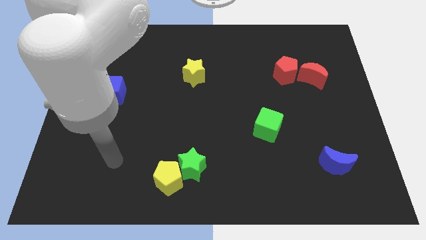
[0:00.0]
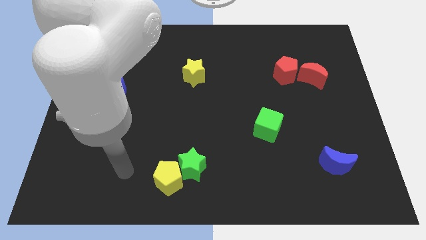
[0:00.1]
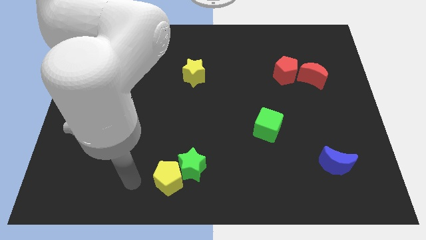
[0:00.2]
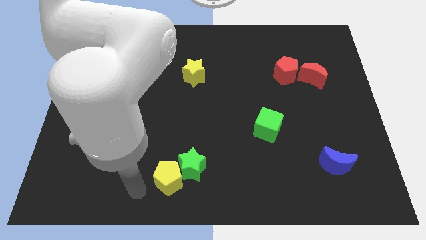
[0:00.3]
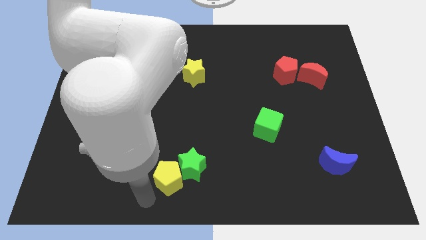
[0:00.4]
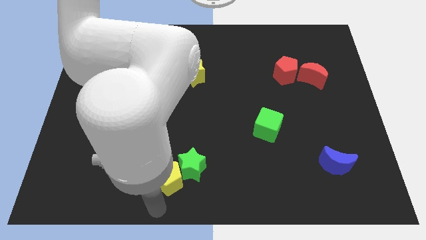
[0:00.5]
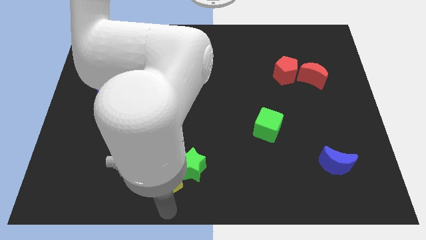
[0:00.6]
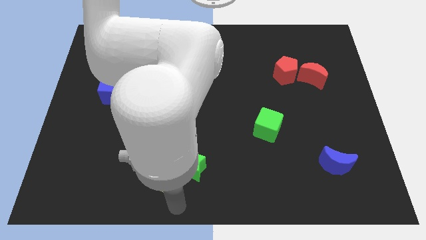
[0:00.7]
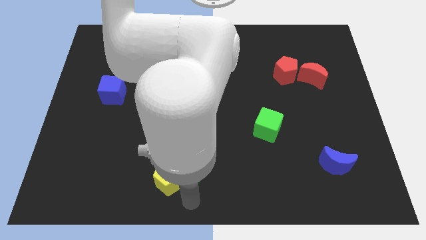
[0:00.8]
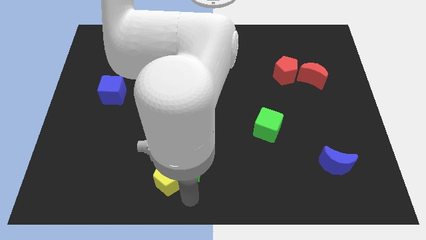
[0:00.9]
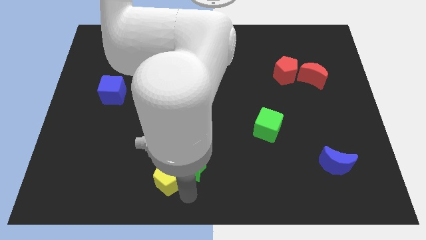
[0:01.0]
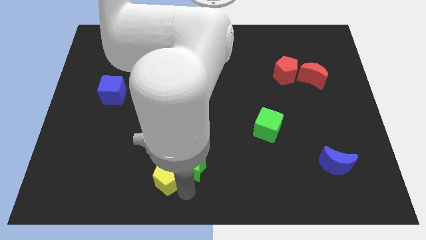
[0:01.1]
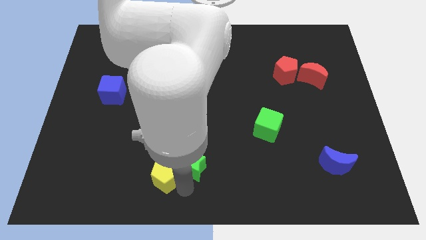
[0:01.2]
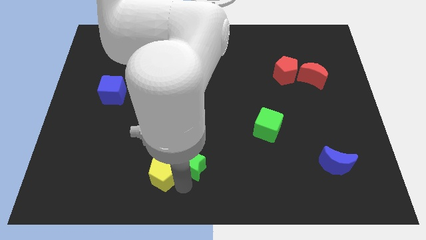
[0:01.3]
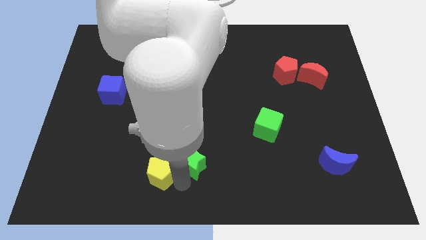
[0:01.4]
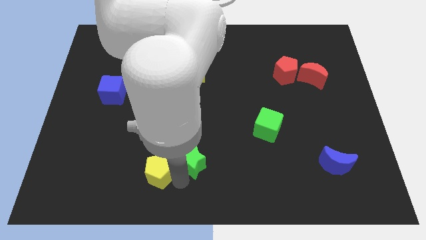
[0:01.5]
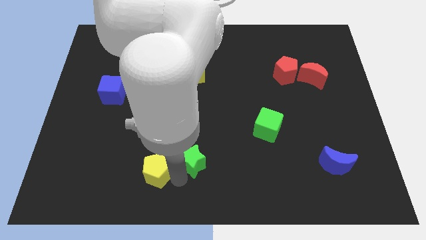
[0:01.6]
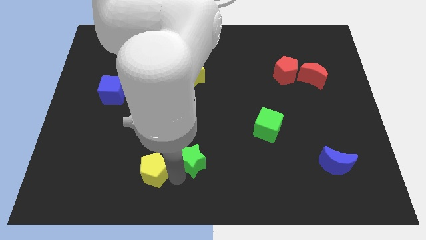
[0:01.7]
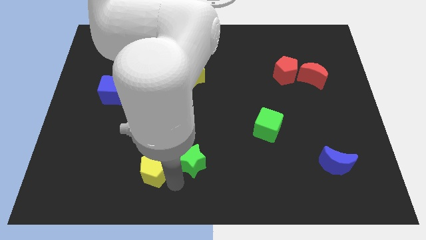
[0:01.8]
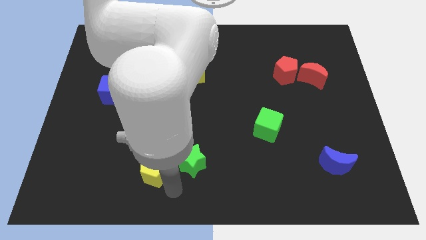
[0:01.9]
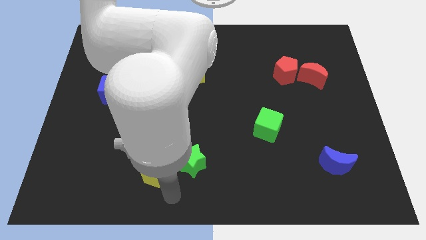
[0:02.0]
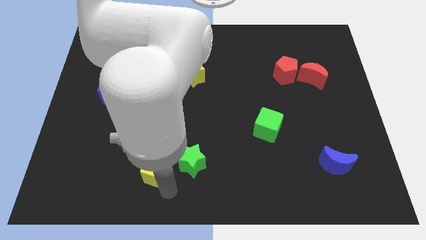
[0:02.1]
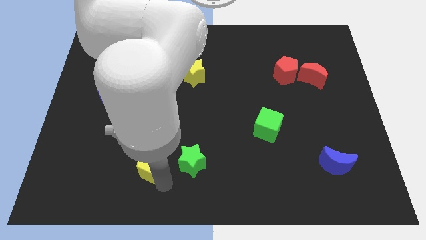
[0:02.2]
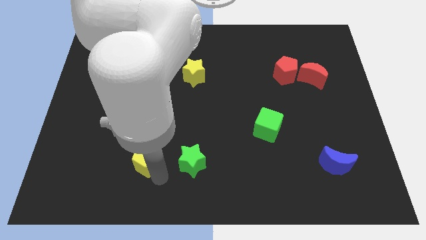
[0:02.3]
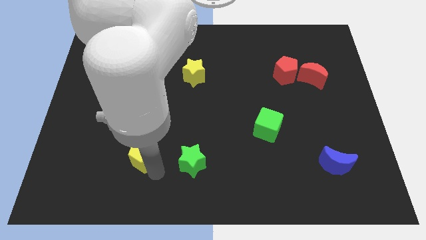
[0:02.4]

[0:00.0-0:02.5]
push the yellow pentagon somewhat up and then left

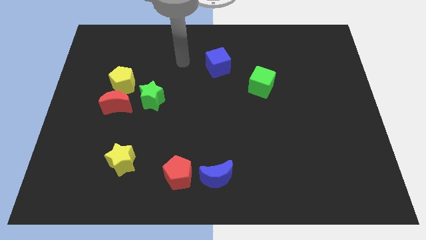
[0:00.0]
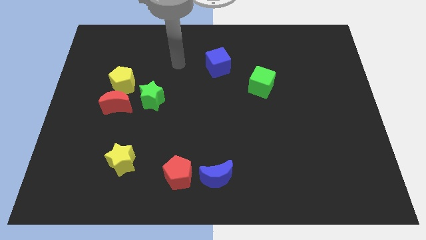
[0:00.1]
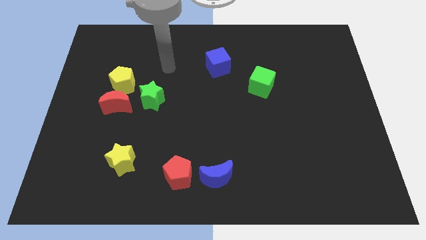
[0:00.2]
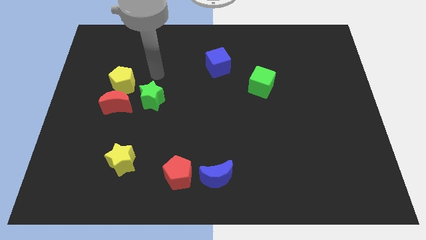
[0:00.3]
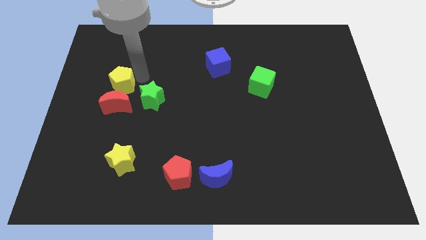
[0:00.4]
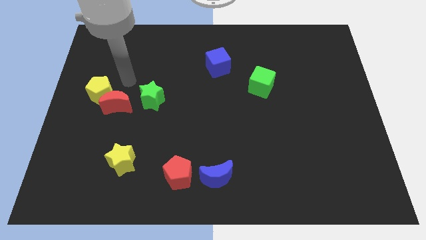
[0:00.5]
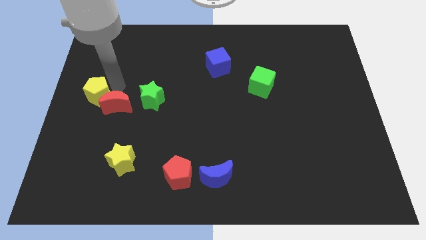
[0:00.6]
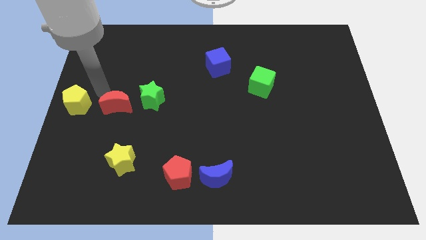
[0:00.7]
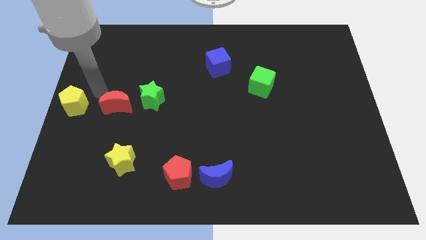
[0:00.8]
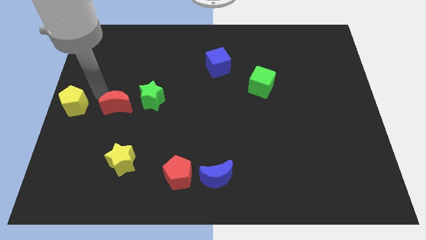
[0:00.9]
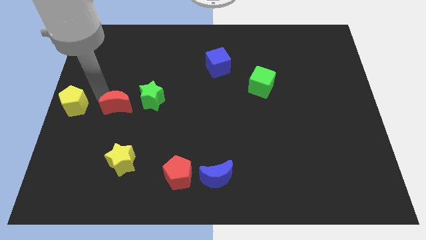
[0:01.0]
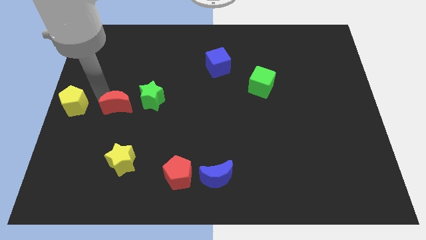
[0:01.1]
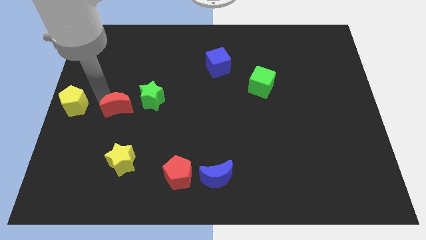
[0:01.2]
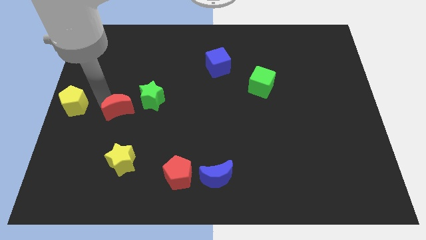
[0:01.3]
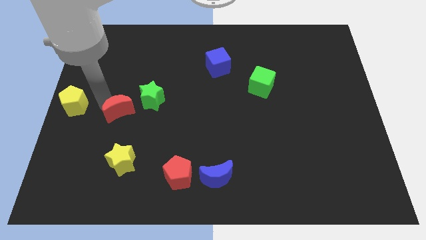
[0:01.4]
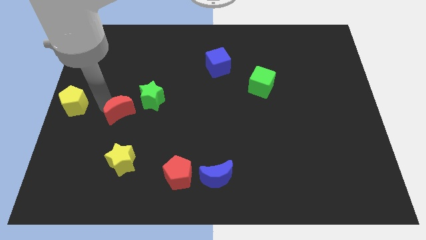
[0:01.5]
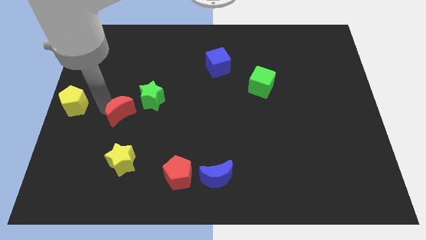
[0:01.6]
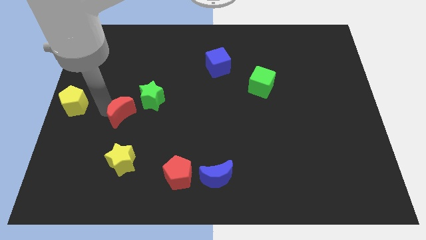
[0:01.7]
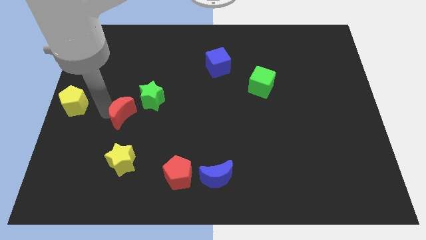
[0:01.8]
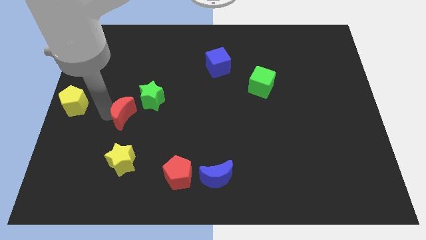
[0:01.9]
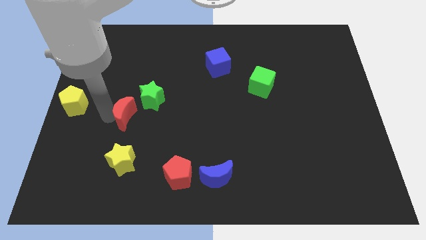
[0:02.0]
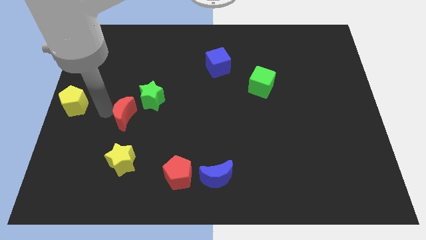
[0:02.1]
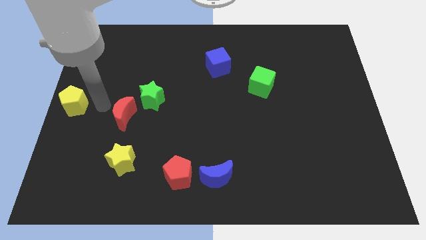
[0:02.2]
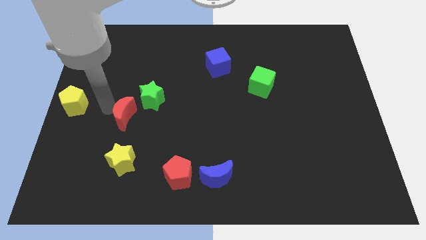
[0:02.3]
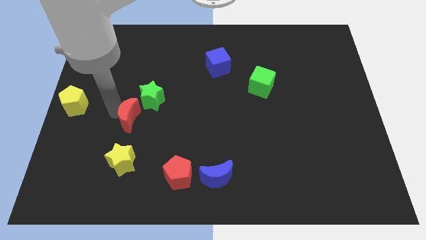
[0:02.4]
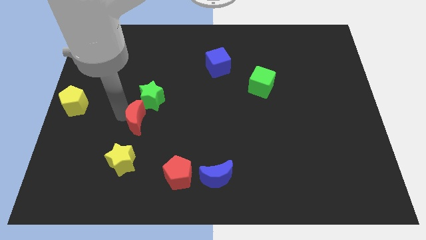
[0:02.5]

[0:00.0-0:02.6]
push the red moon slightly down and then to the right

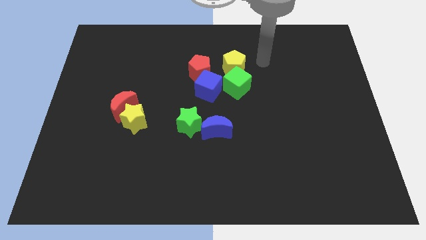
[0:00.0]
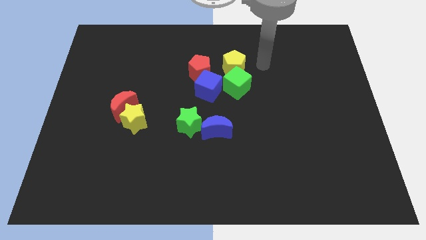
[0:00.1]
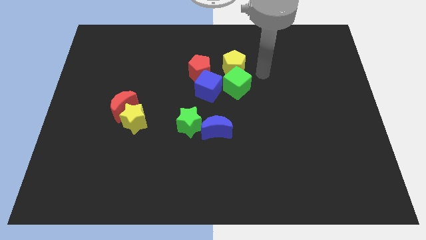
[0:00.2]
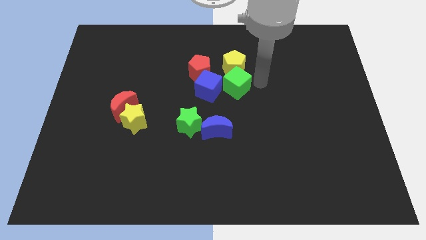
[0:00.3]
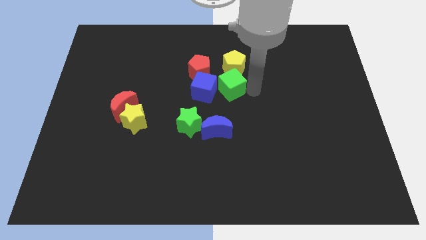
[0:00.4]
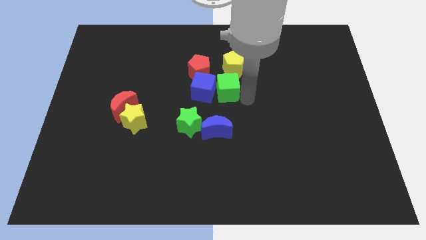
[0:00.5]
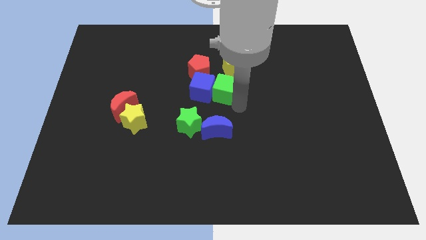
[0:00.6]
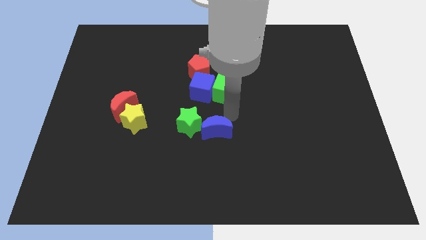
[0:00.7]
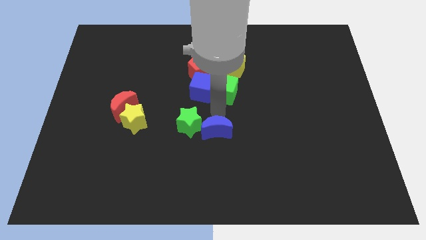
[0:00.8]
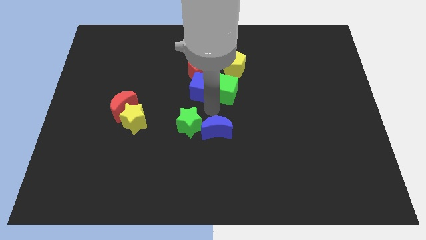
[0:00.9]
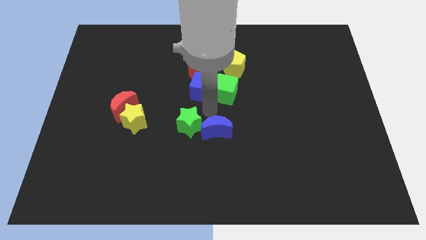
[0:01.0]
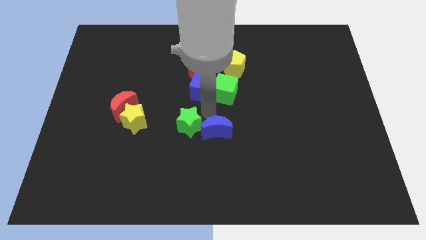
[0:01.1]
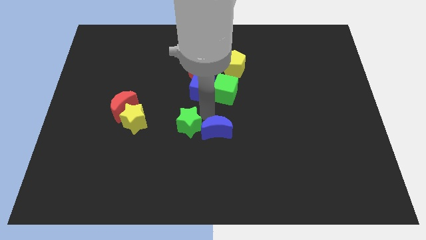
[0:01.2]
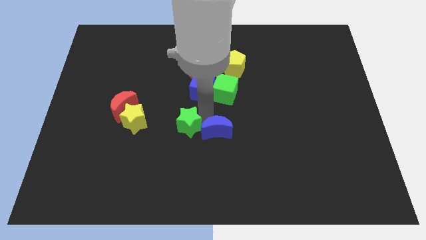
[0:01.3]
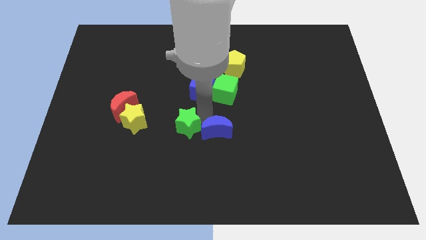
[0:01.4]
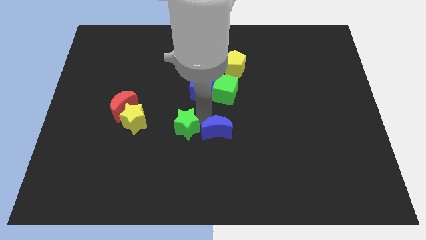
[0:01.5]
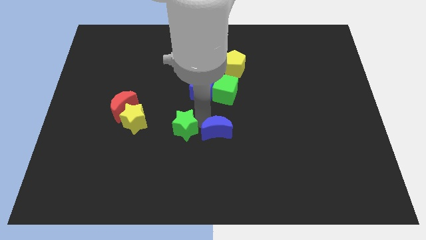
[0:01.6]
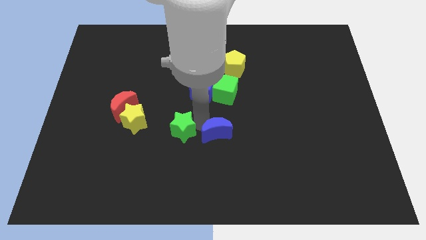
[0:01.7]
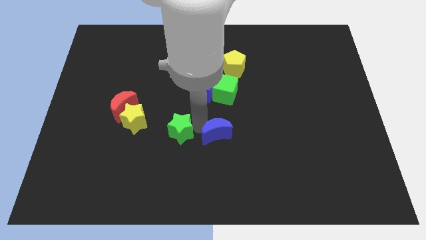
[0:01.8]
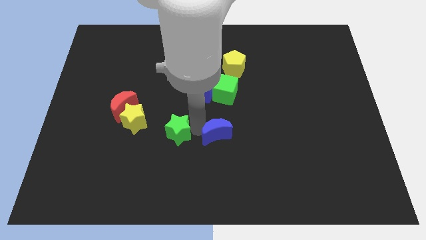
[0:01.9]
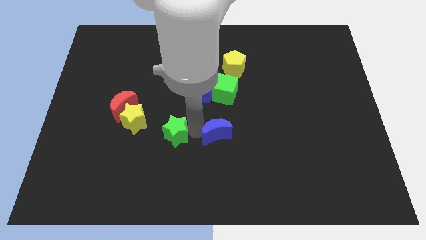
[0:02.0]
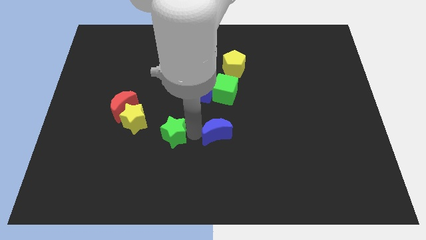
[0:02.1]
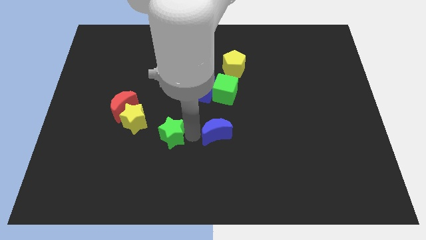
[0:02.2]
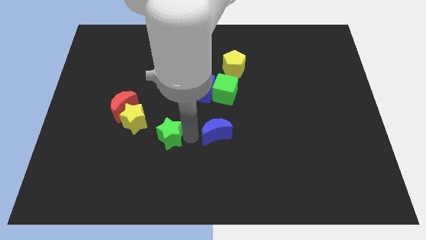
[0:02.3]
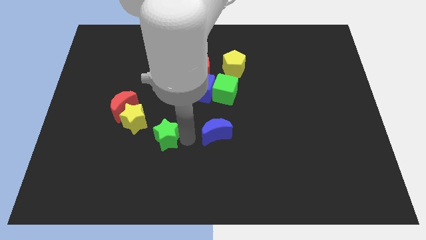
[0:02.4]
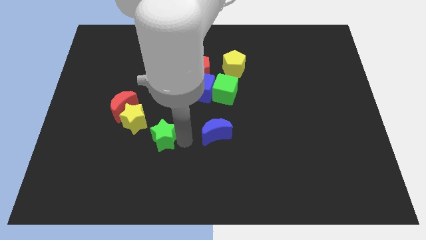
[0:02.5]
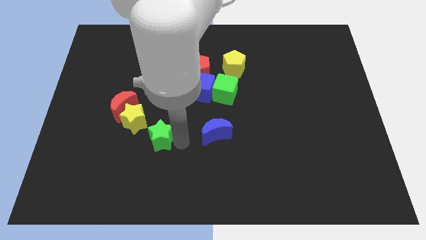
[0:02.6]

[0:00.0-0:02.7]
slide the green star downwards and left diagonally a little bit
